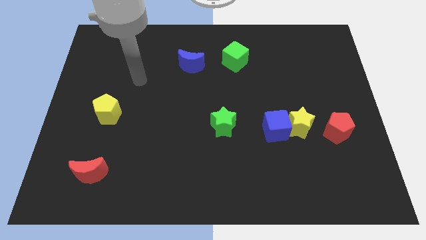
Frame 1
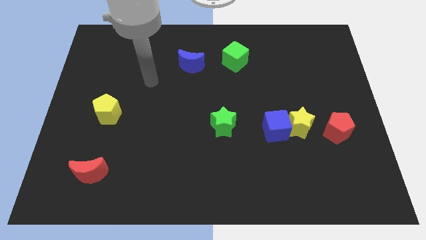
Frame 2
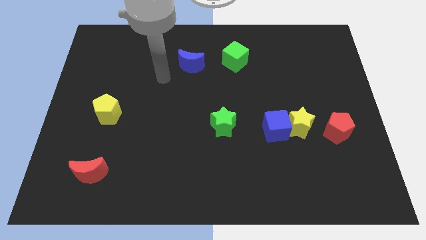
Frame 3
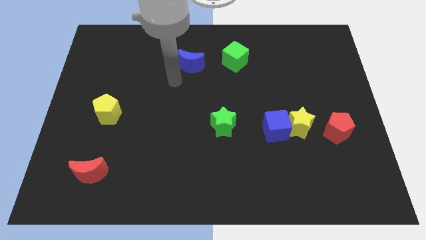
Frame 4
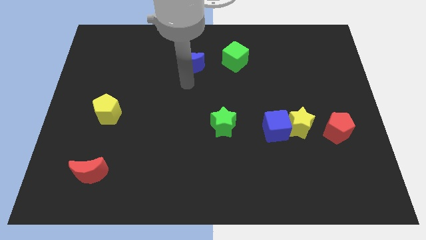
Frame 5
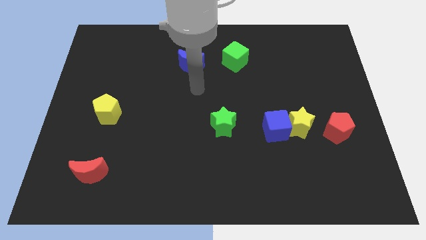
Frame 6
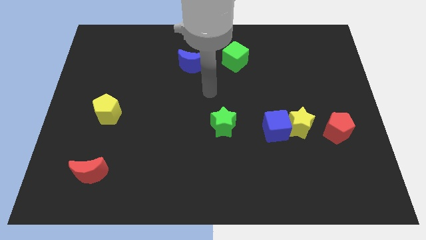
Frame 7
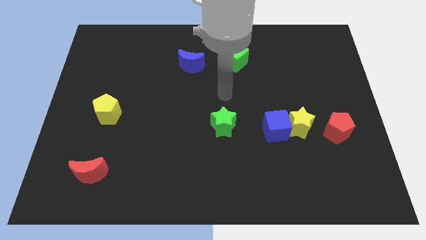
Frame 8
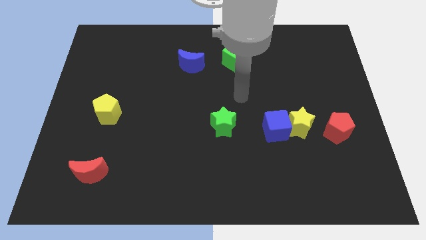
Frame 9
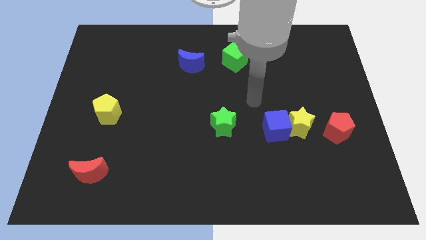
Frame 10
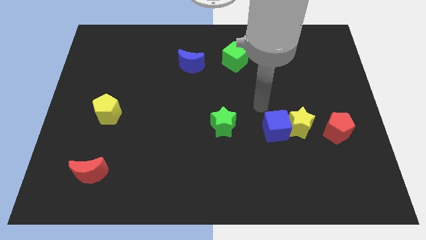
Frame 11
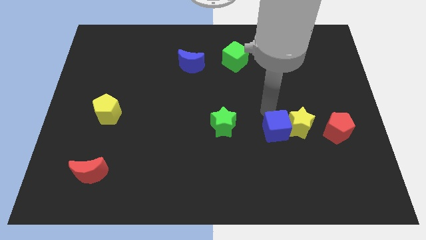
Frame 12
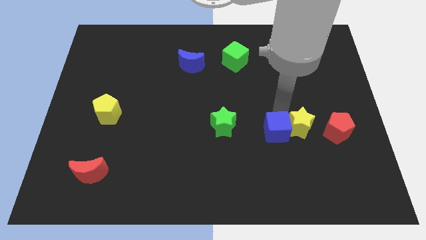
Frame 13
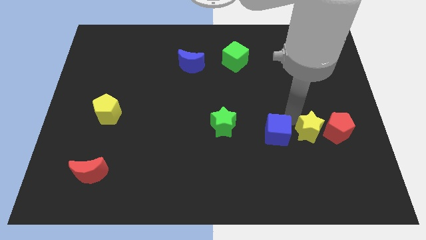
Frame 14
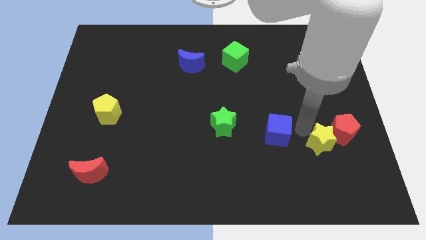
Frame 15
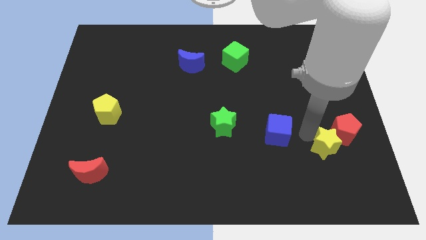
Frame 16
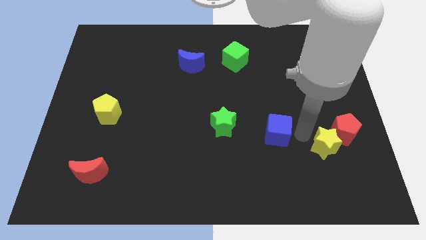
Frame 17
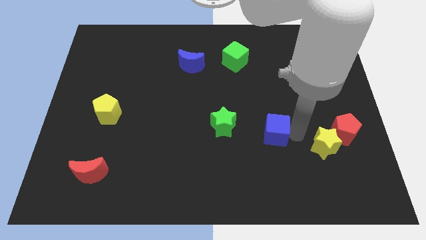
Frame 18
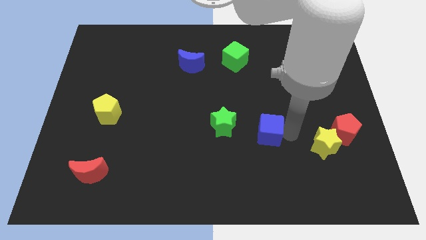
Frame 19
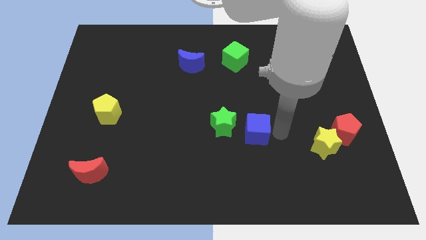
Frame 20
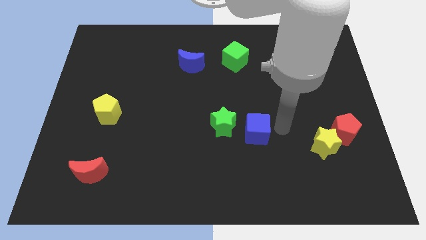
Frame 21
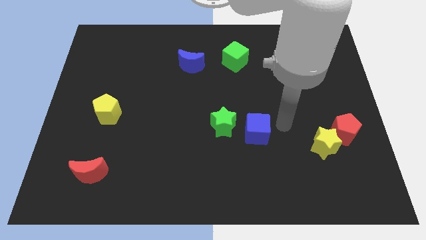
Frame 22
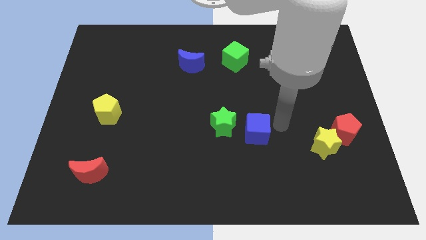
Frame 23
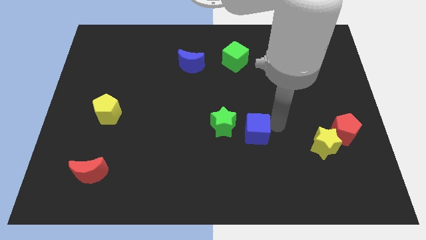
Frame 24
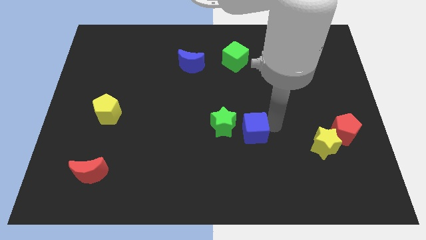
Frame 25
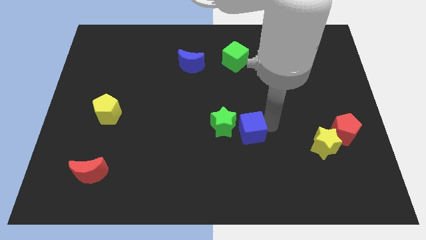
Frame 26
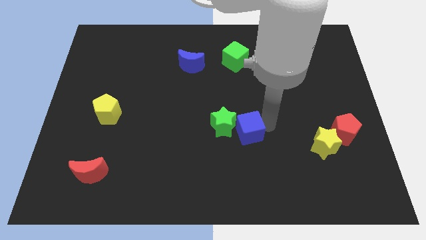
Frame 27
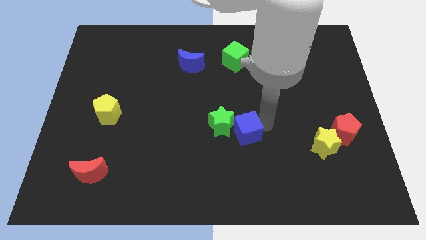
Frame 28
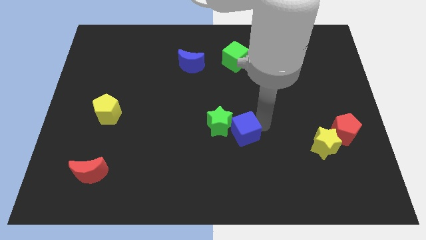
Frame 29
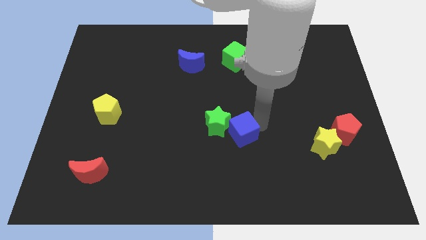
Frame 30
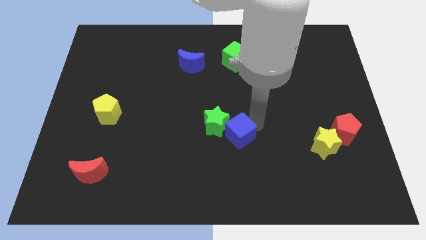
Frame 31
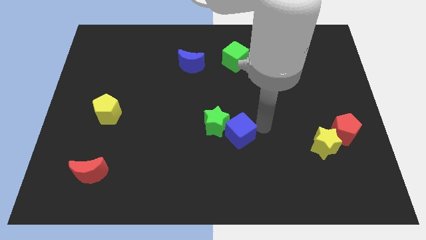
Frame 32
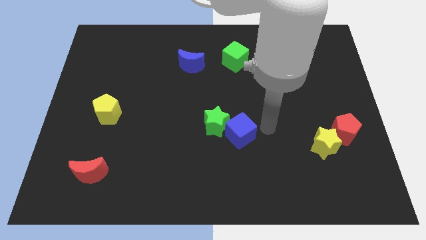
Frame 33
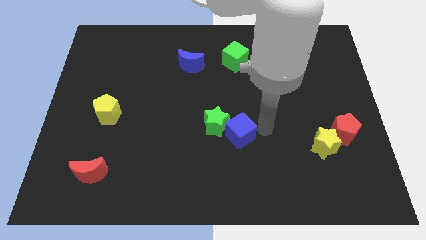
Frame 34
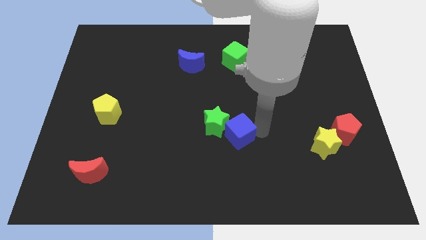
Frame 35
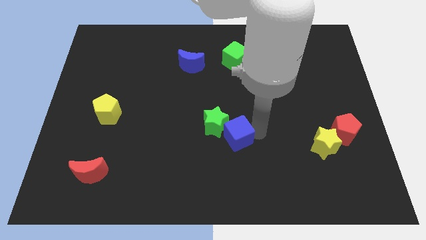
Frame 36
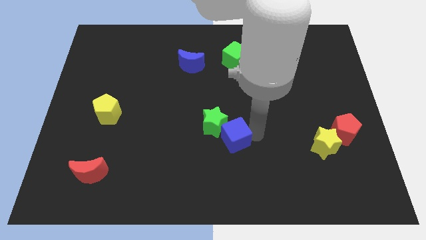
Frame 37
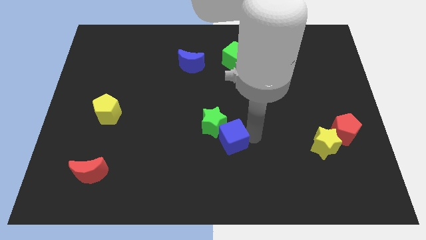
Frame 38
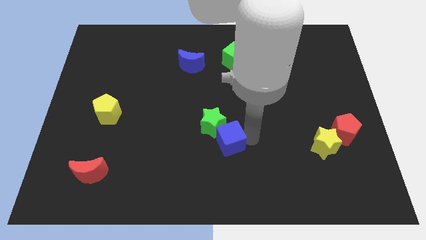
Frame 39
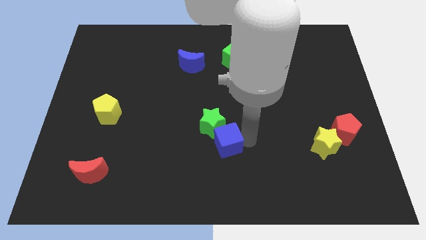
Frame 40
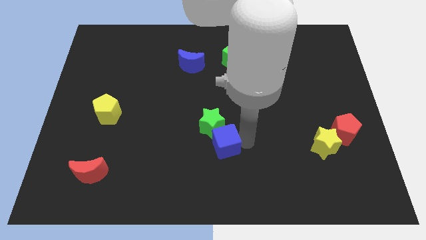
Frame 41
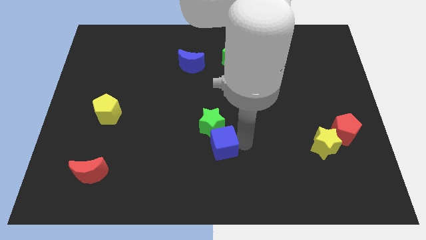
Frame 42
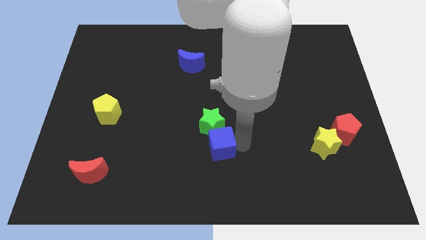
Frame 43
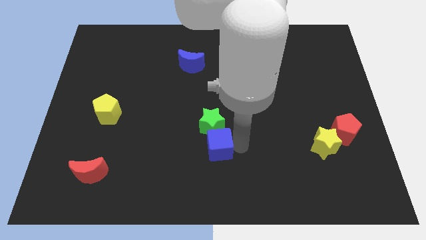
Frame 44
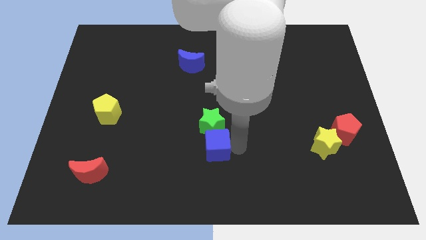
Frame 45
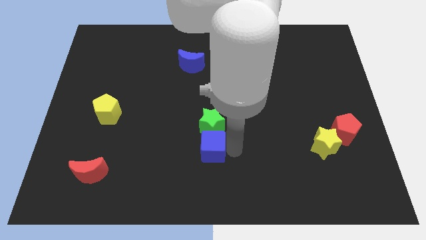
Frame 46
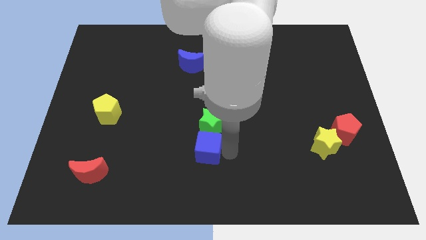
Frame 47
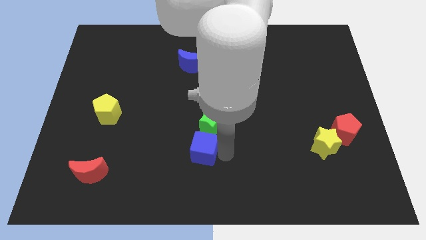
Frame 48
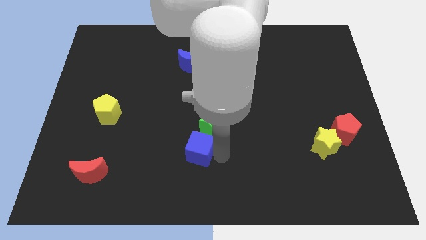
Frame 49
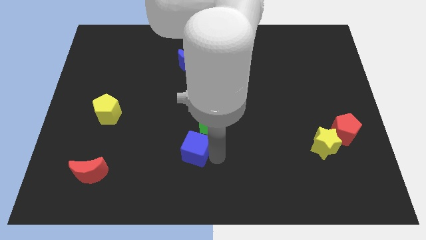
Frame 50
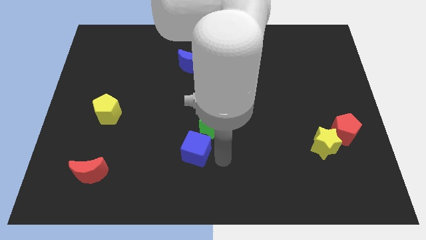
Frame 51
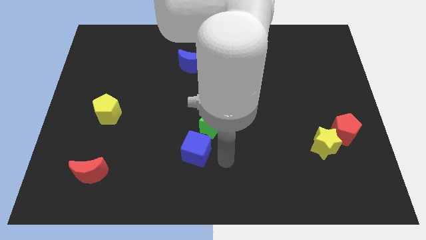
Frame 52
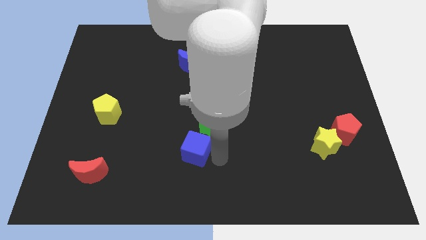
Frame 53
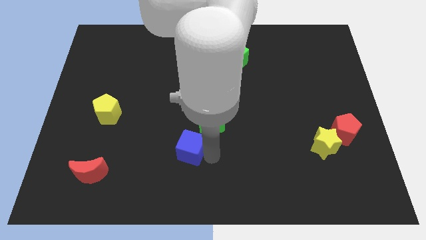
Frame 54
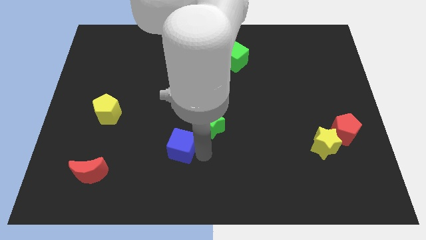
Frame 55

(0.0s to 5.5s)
move the blue cube left

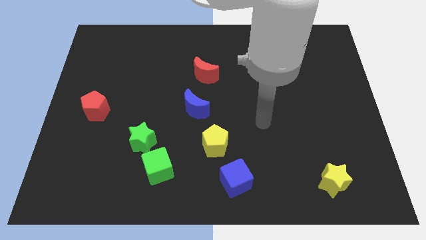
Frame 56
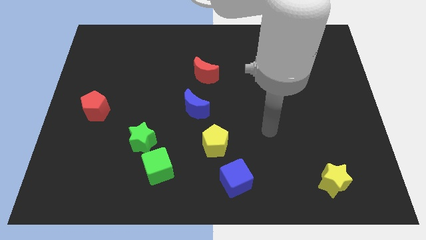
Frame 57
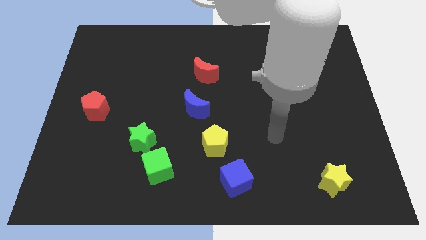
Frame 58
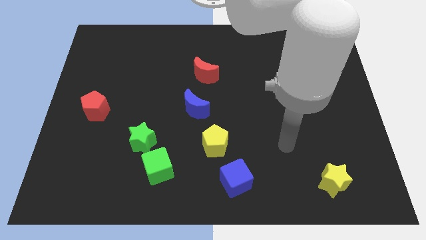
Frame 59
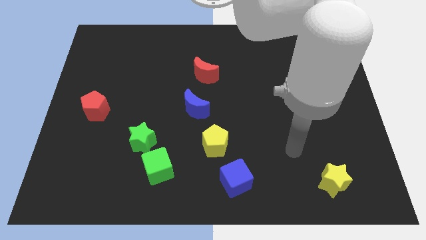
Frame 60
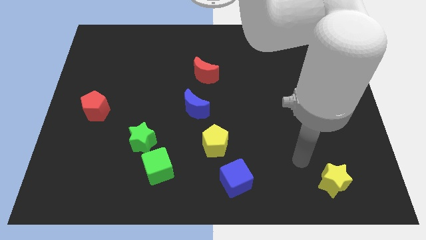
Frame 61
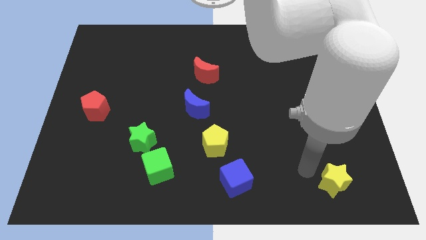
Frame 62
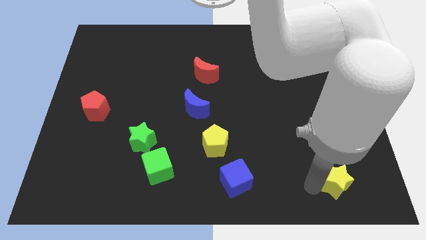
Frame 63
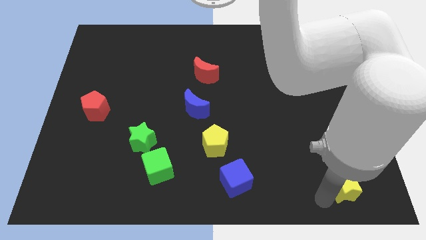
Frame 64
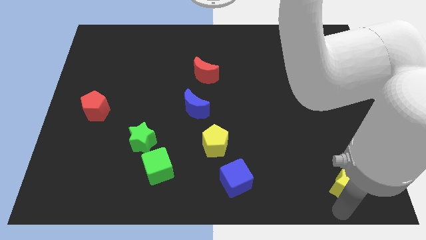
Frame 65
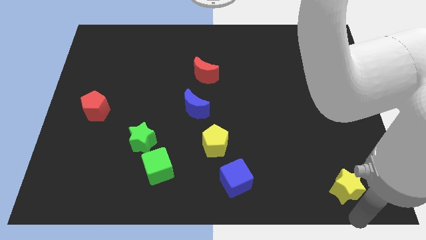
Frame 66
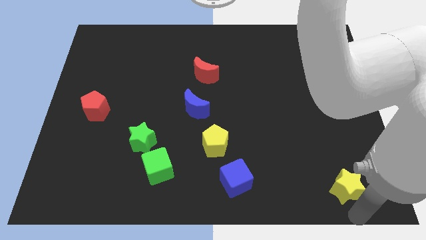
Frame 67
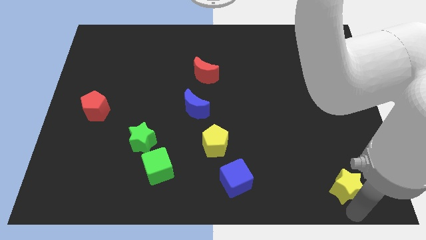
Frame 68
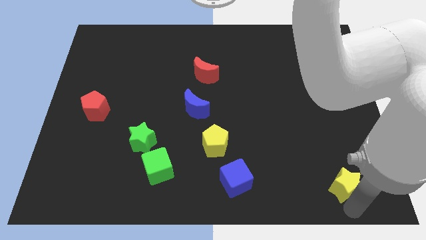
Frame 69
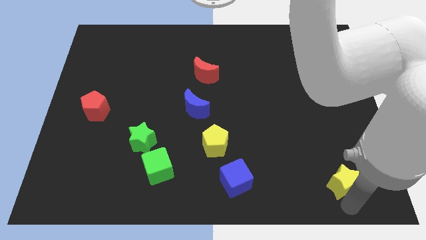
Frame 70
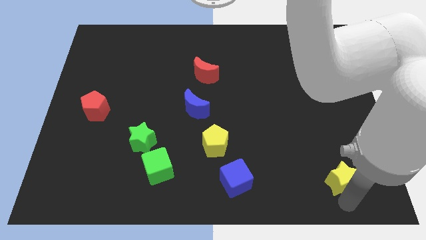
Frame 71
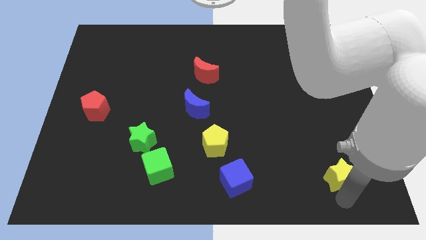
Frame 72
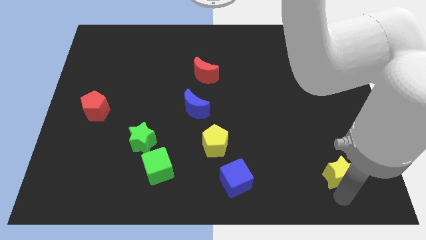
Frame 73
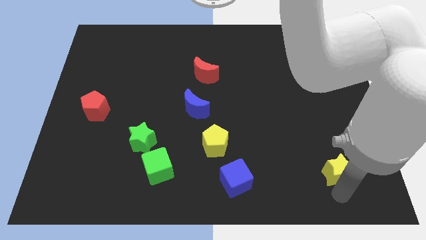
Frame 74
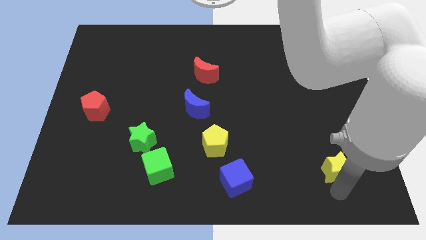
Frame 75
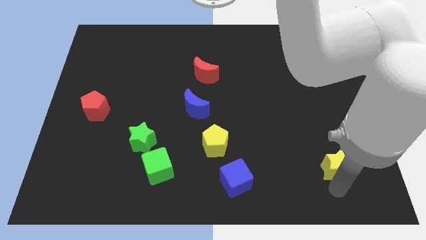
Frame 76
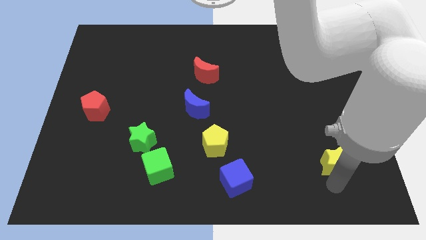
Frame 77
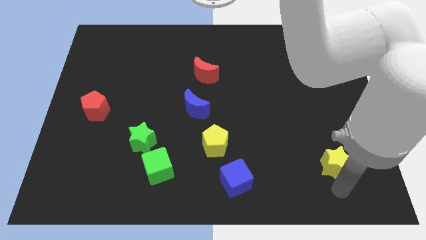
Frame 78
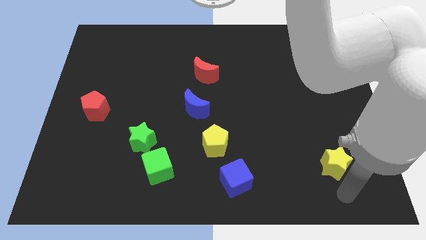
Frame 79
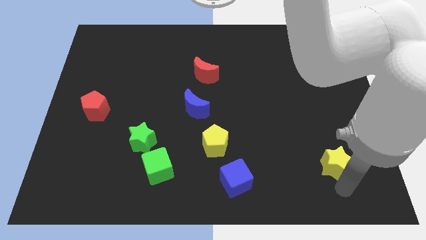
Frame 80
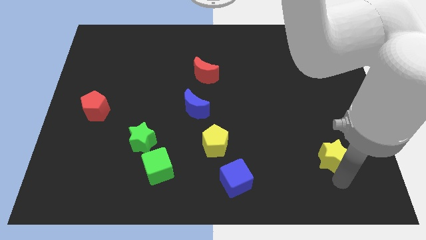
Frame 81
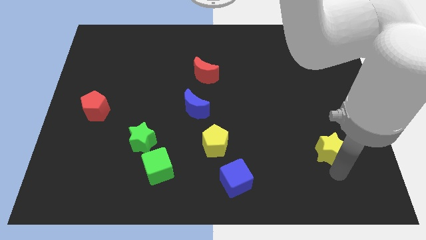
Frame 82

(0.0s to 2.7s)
slightly move the yellow star up
